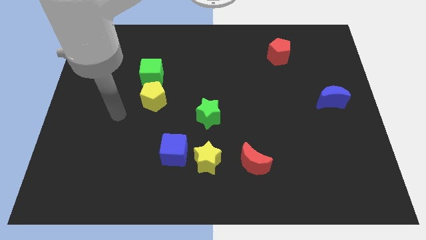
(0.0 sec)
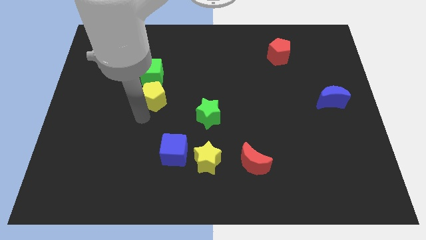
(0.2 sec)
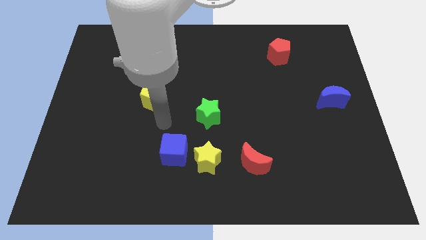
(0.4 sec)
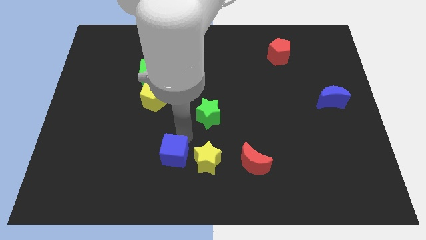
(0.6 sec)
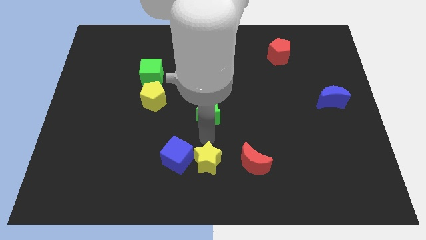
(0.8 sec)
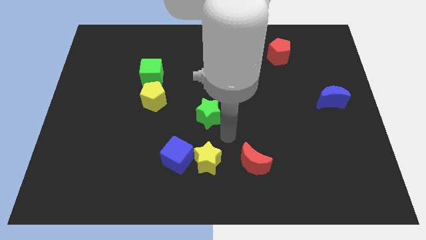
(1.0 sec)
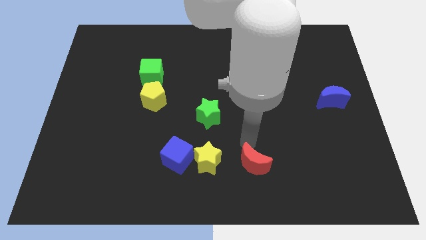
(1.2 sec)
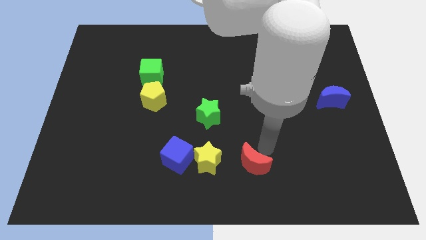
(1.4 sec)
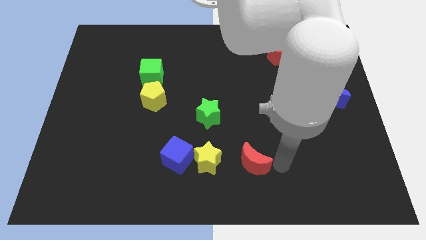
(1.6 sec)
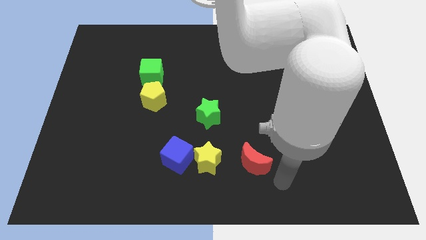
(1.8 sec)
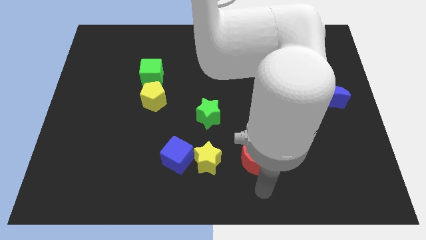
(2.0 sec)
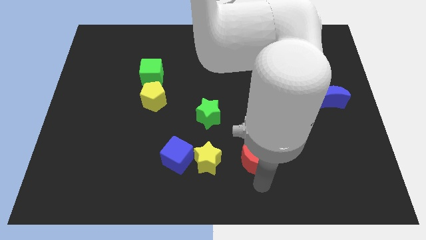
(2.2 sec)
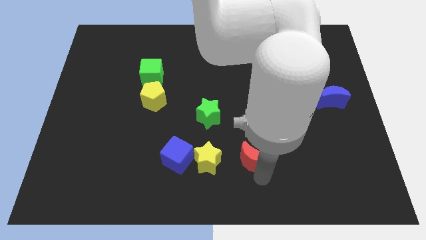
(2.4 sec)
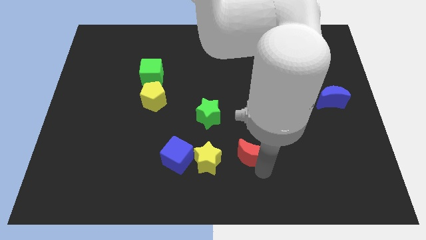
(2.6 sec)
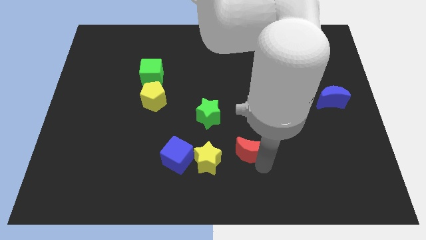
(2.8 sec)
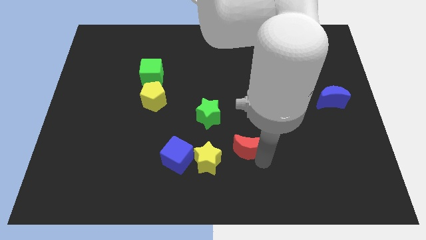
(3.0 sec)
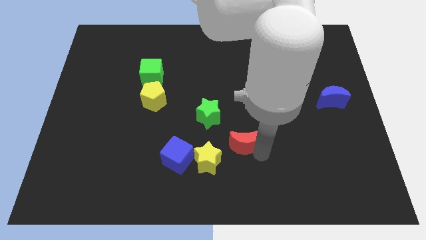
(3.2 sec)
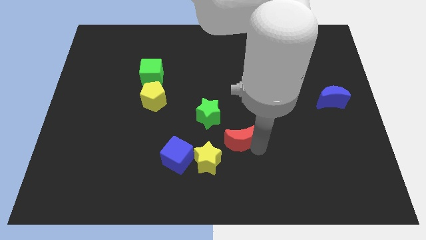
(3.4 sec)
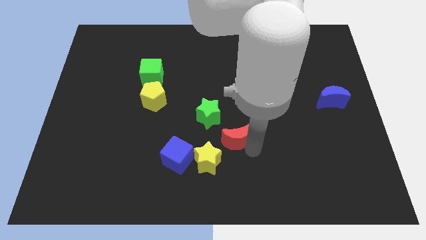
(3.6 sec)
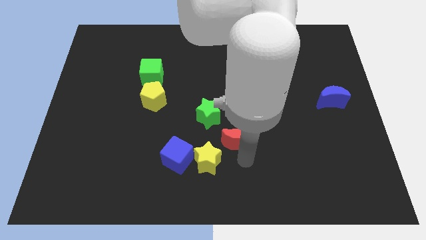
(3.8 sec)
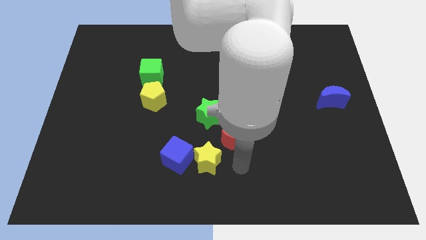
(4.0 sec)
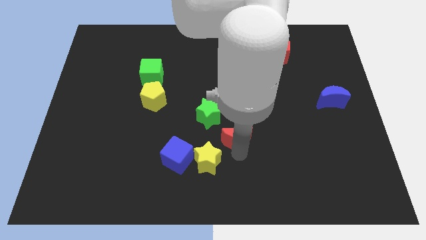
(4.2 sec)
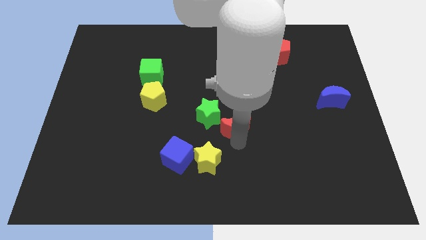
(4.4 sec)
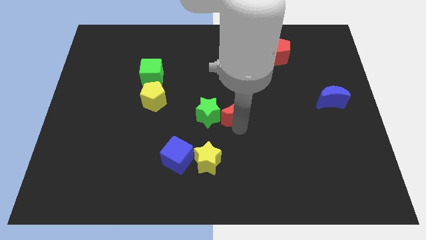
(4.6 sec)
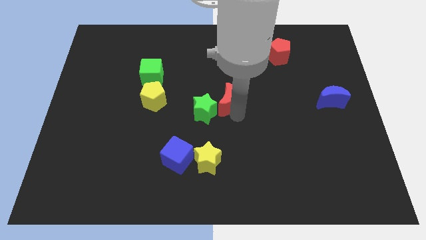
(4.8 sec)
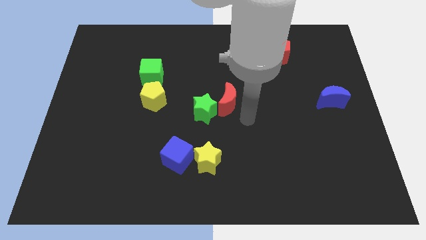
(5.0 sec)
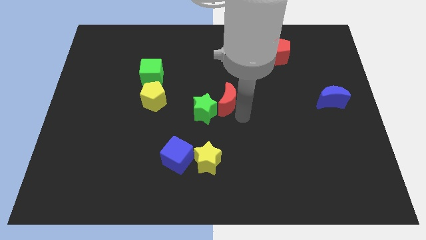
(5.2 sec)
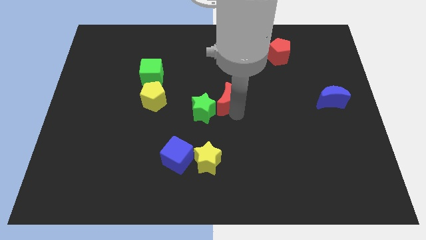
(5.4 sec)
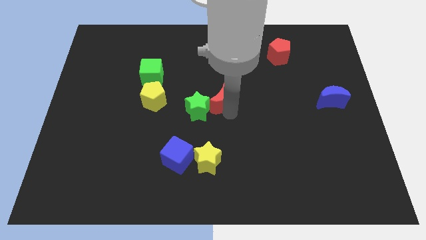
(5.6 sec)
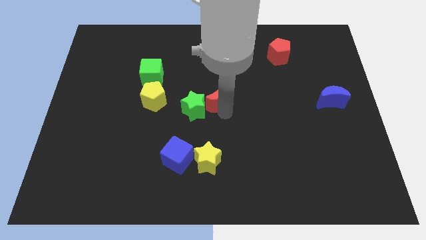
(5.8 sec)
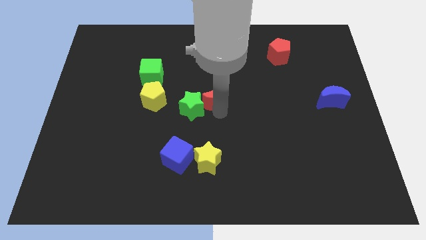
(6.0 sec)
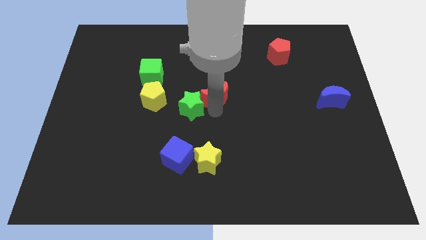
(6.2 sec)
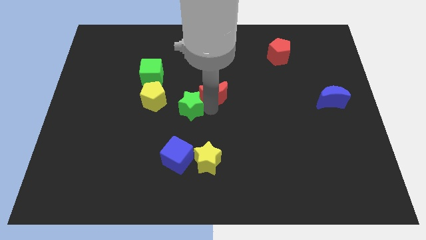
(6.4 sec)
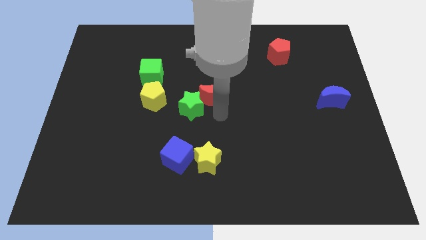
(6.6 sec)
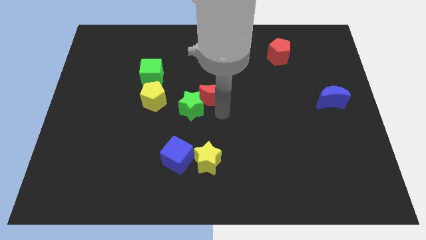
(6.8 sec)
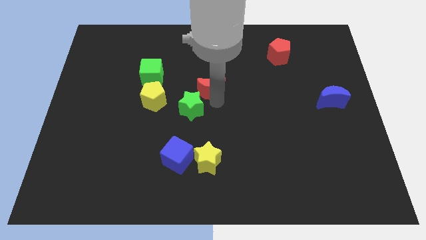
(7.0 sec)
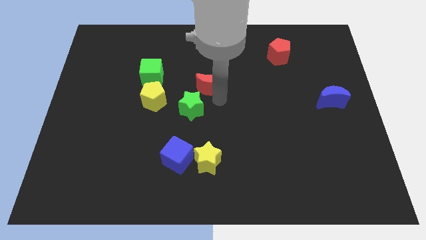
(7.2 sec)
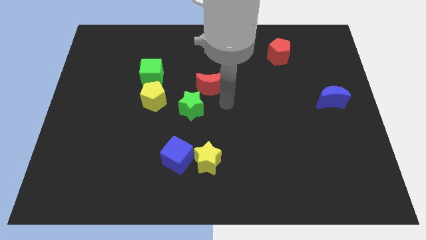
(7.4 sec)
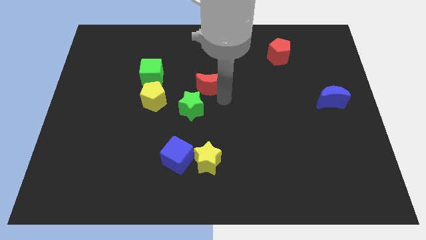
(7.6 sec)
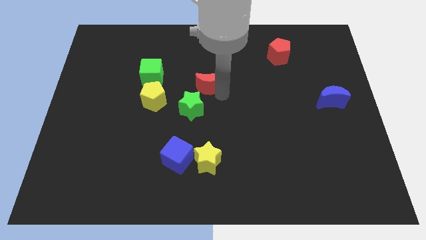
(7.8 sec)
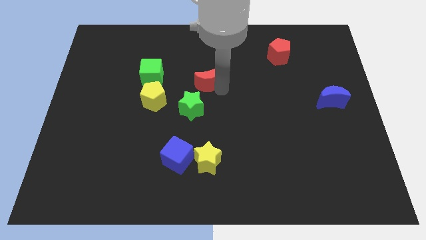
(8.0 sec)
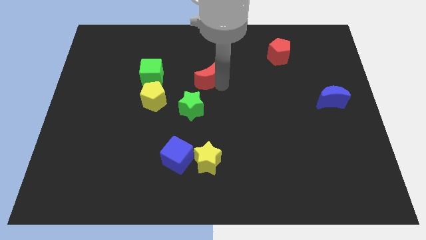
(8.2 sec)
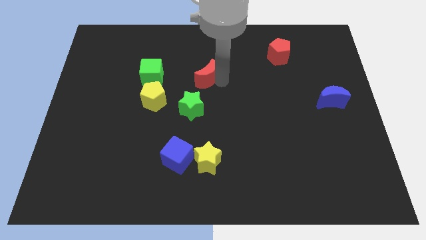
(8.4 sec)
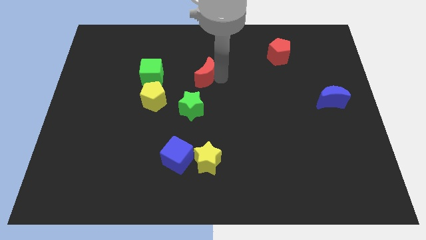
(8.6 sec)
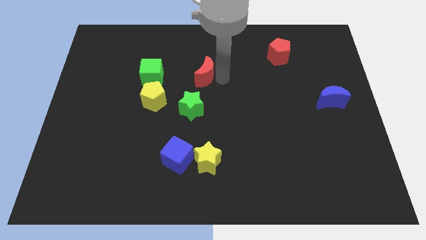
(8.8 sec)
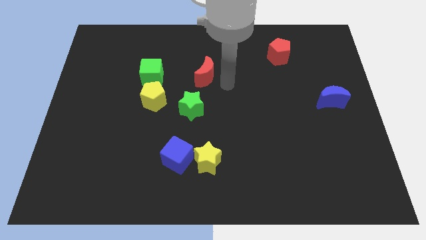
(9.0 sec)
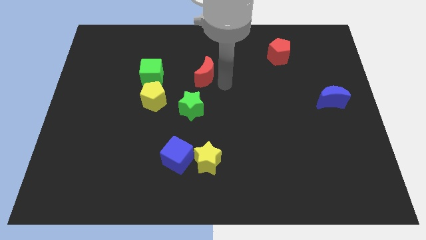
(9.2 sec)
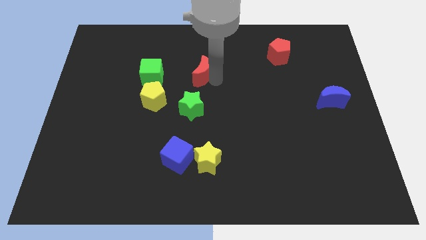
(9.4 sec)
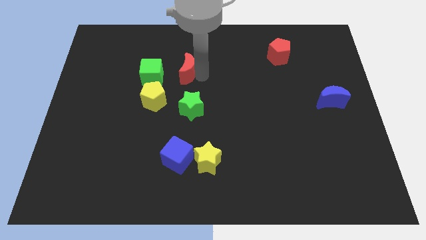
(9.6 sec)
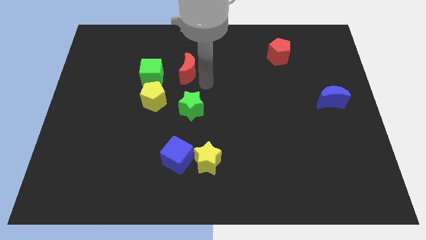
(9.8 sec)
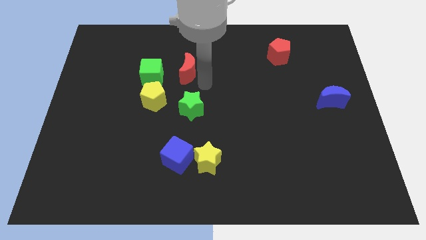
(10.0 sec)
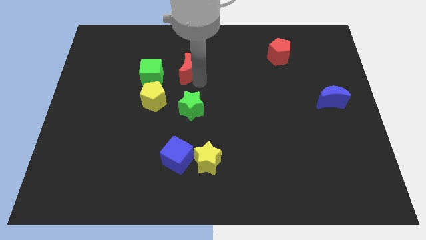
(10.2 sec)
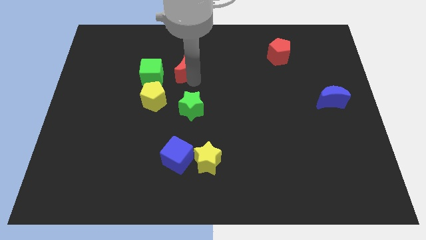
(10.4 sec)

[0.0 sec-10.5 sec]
put the red moon to the top right of the green cube

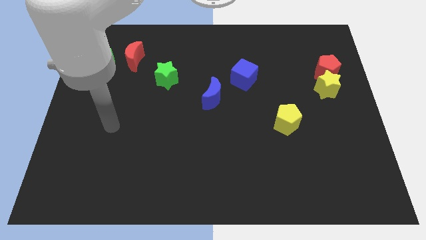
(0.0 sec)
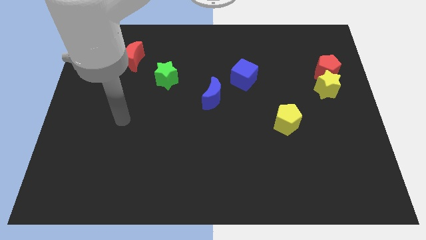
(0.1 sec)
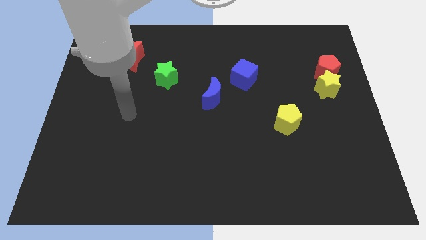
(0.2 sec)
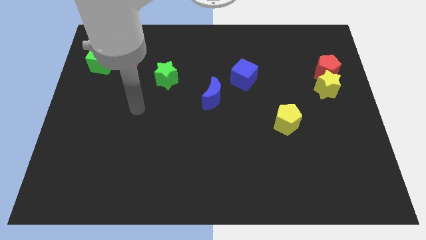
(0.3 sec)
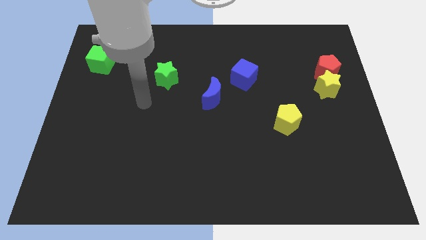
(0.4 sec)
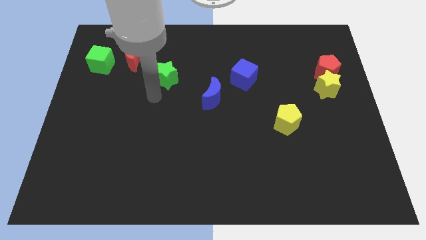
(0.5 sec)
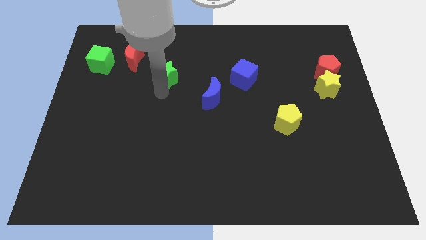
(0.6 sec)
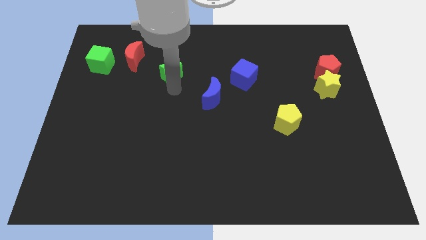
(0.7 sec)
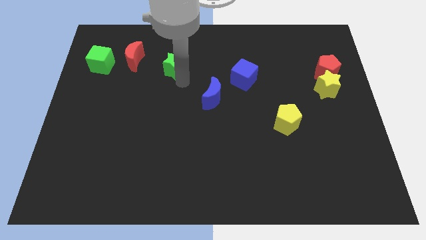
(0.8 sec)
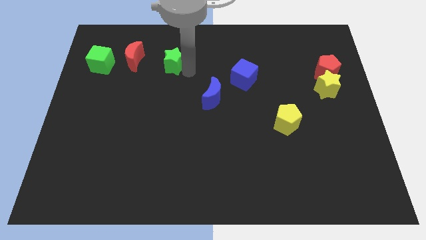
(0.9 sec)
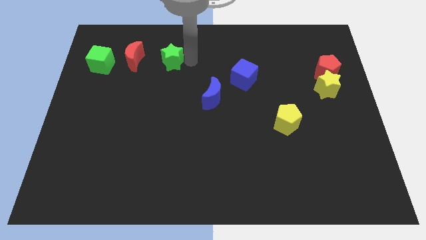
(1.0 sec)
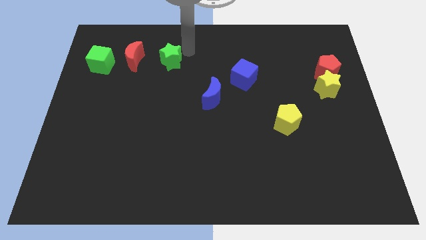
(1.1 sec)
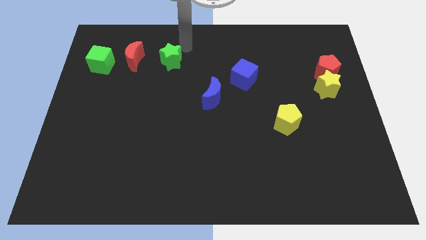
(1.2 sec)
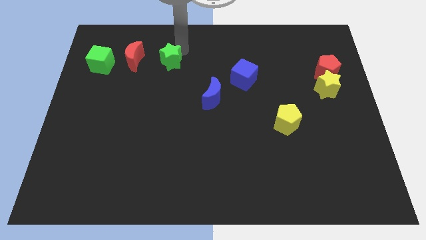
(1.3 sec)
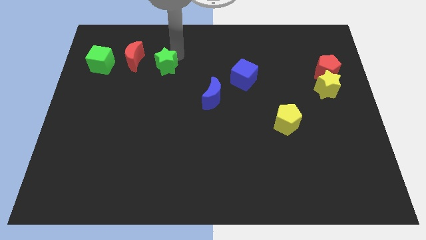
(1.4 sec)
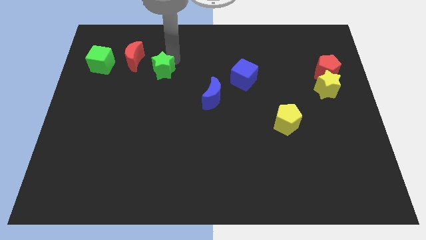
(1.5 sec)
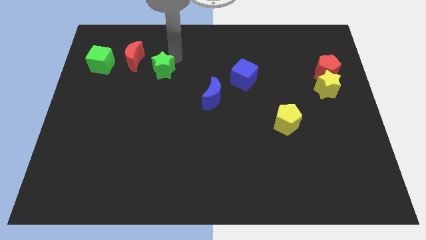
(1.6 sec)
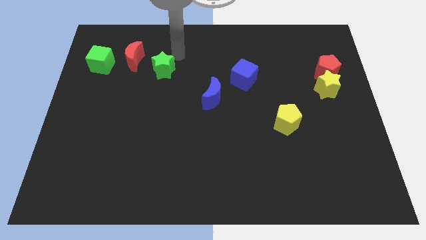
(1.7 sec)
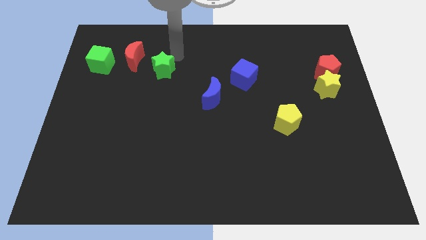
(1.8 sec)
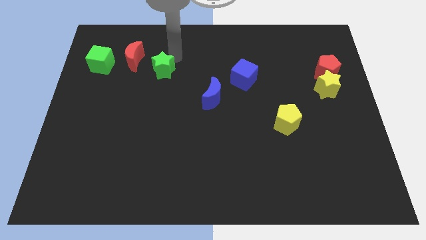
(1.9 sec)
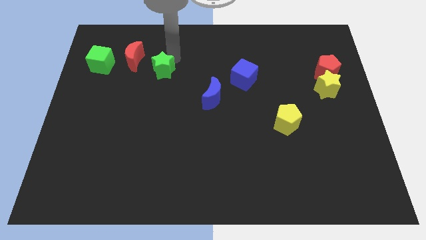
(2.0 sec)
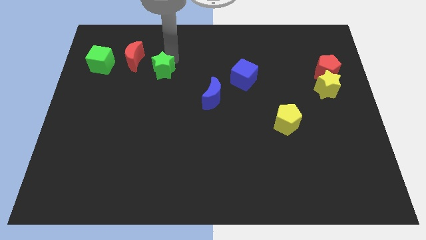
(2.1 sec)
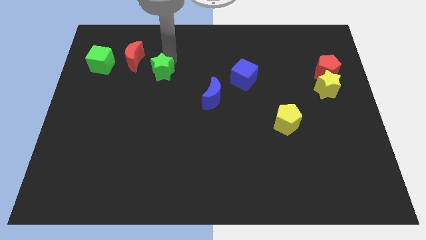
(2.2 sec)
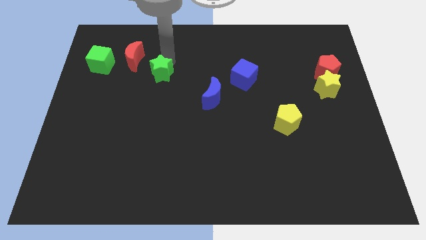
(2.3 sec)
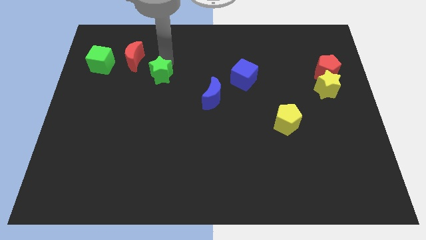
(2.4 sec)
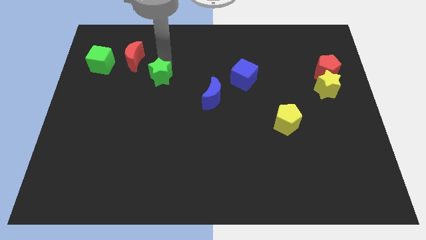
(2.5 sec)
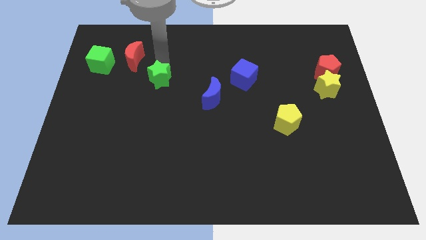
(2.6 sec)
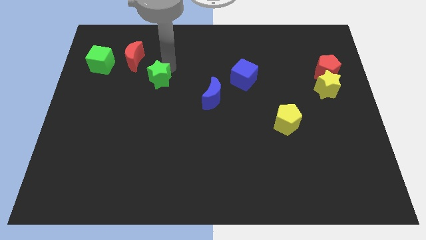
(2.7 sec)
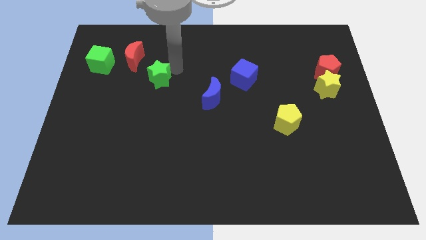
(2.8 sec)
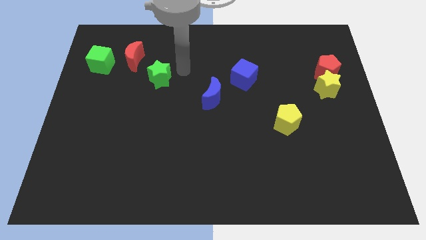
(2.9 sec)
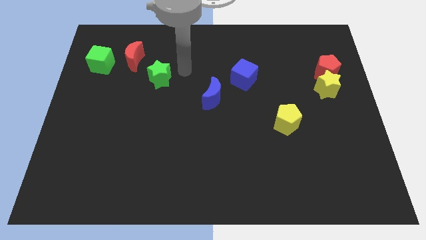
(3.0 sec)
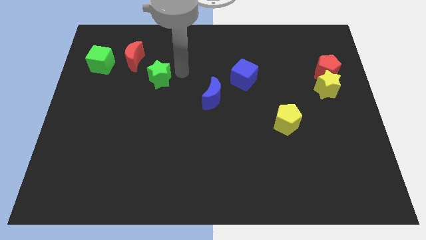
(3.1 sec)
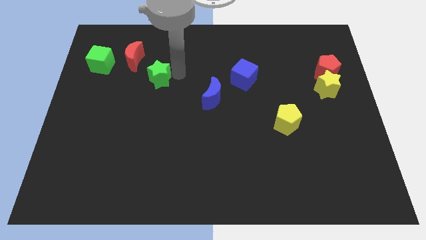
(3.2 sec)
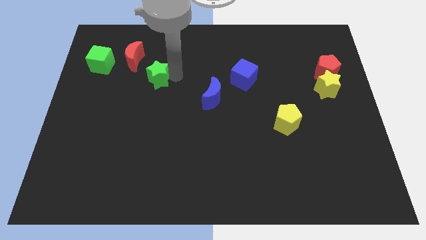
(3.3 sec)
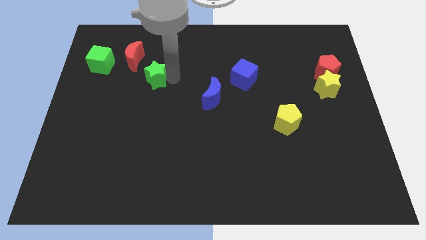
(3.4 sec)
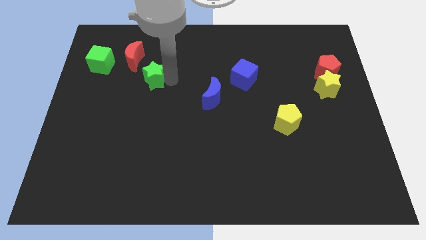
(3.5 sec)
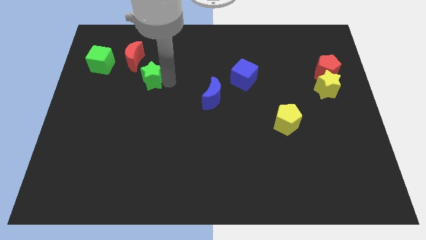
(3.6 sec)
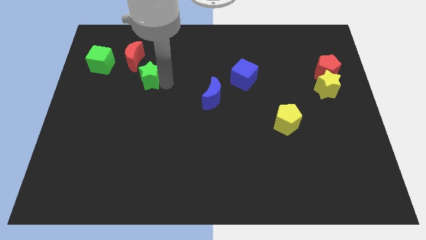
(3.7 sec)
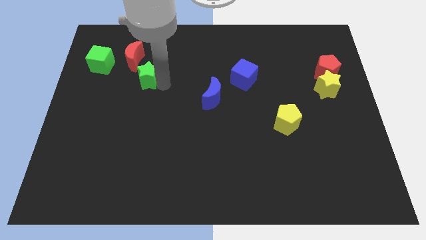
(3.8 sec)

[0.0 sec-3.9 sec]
put the green star to the bottom of the red moon
